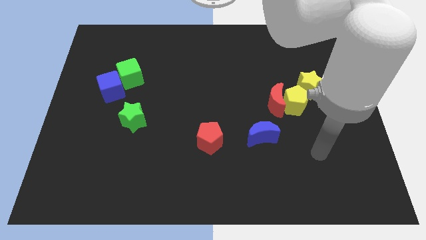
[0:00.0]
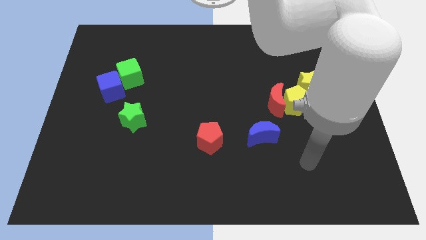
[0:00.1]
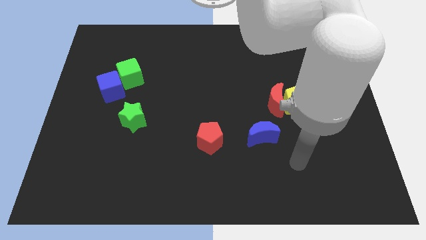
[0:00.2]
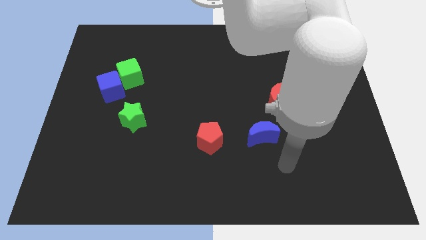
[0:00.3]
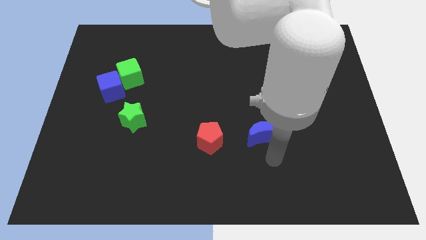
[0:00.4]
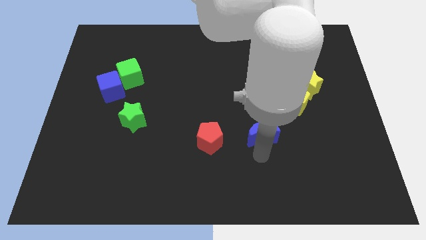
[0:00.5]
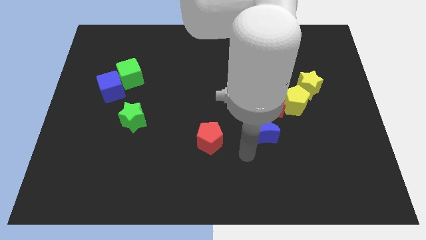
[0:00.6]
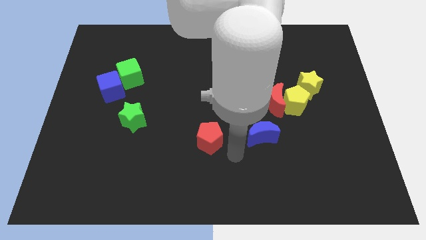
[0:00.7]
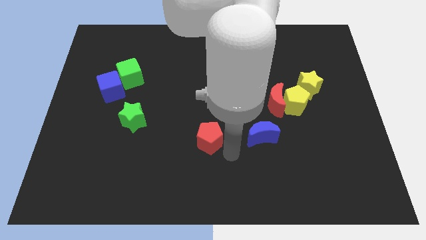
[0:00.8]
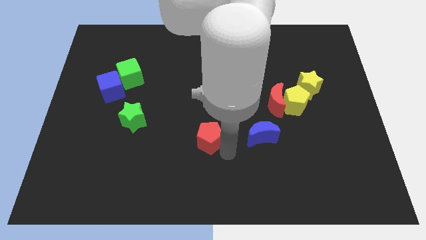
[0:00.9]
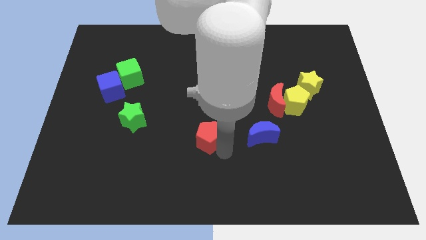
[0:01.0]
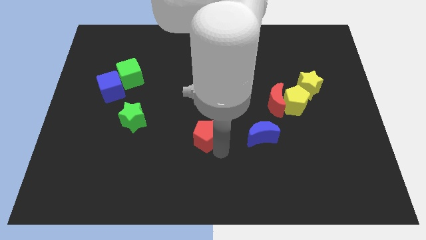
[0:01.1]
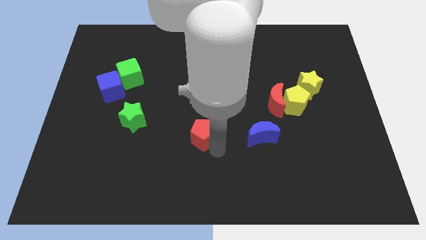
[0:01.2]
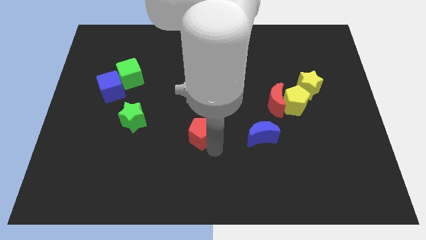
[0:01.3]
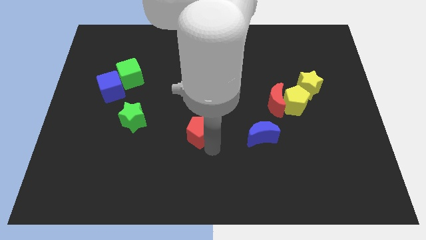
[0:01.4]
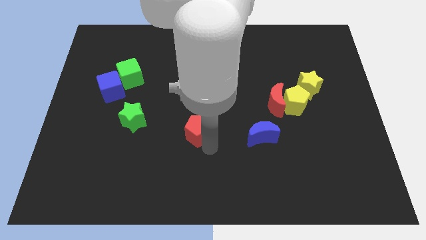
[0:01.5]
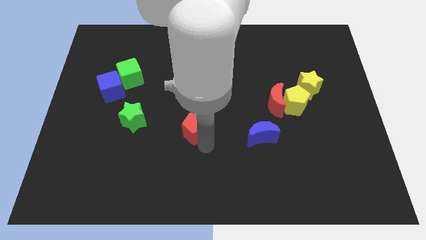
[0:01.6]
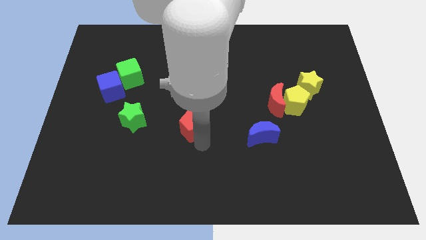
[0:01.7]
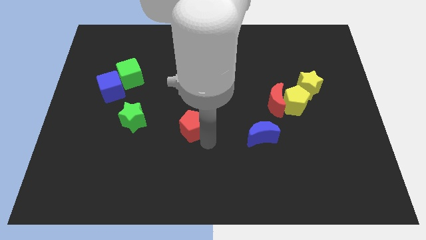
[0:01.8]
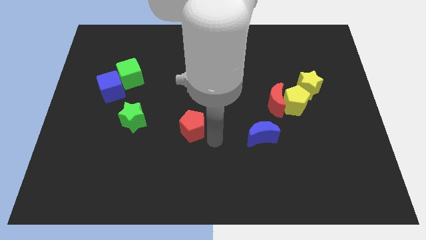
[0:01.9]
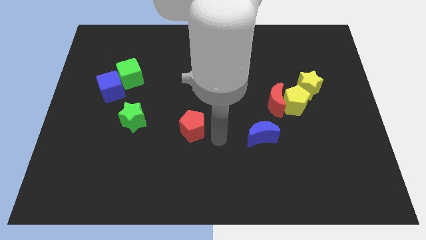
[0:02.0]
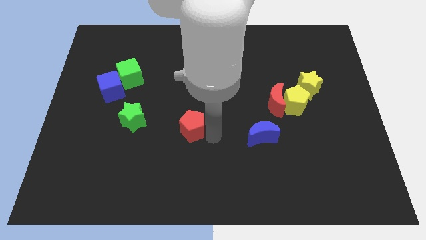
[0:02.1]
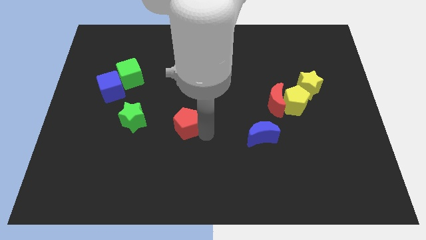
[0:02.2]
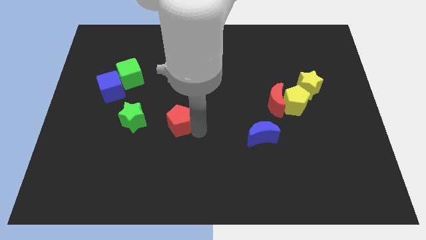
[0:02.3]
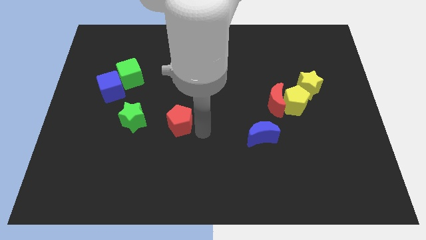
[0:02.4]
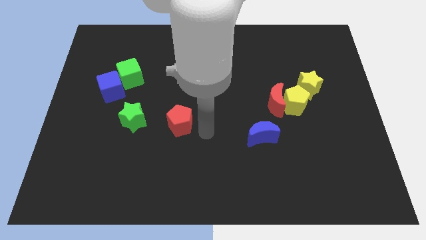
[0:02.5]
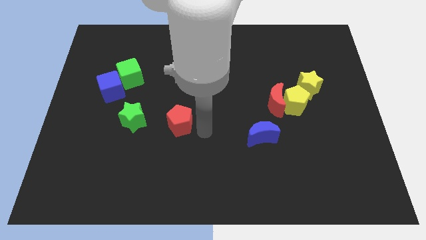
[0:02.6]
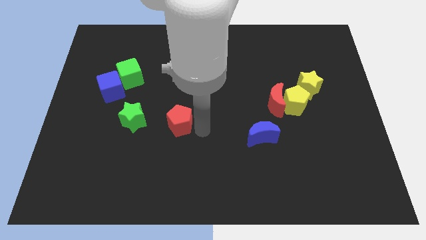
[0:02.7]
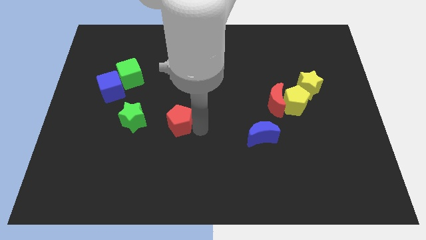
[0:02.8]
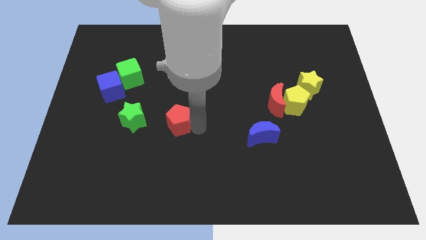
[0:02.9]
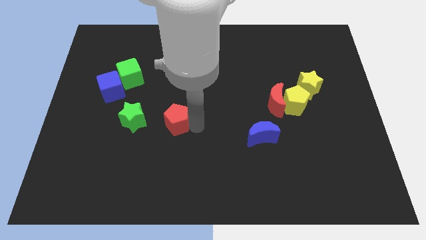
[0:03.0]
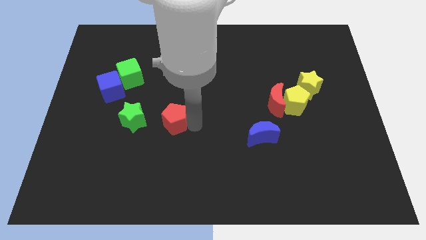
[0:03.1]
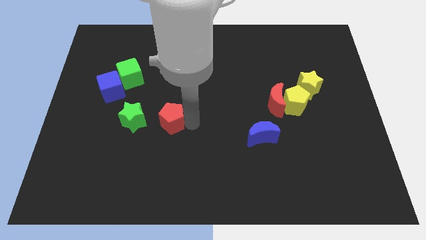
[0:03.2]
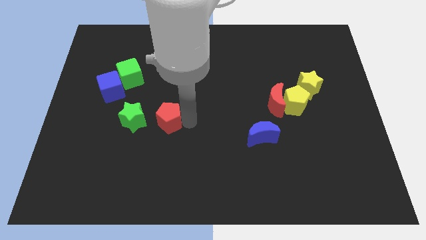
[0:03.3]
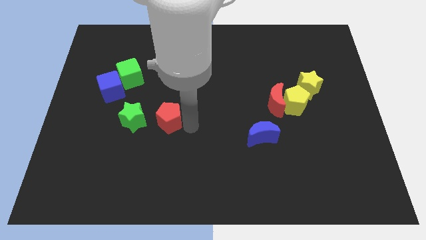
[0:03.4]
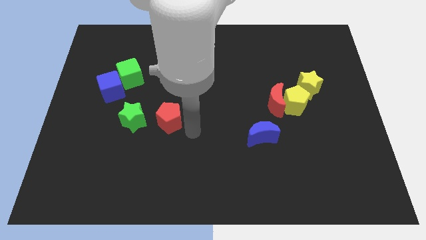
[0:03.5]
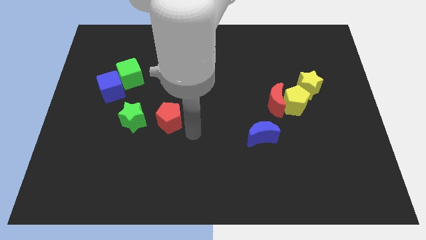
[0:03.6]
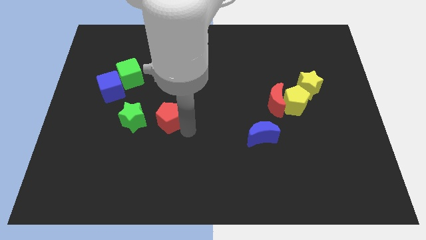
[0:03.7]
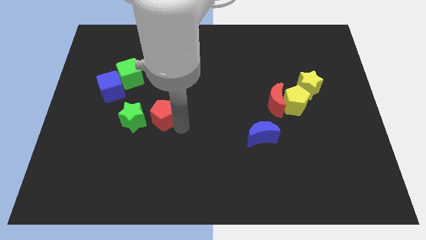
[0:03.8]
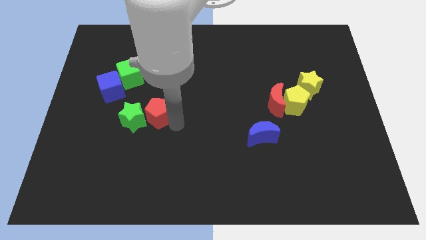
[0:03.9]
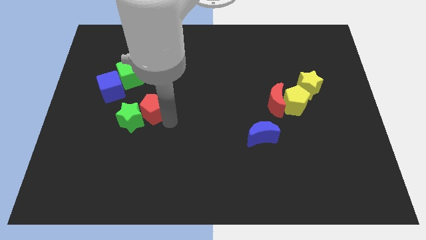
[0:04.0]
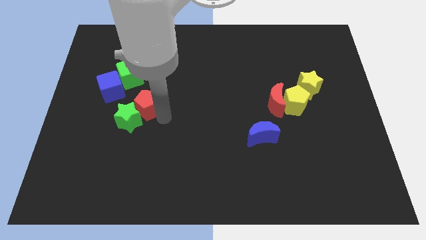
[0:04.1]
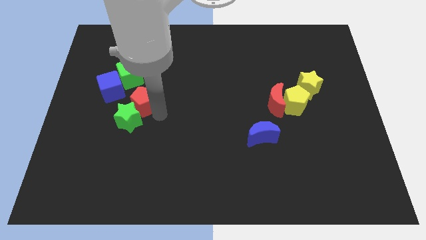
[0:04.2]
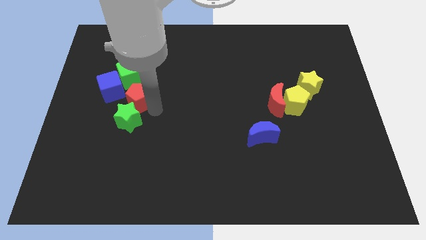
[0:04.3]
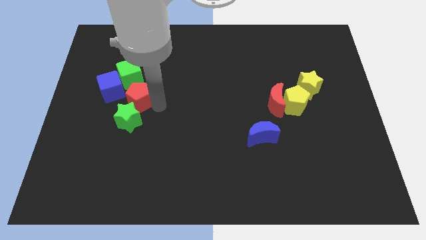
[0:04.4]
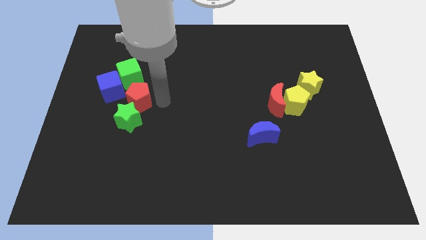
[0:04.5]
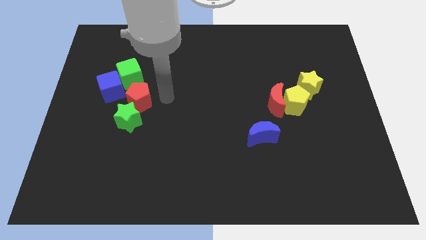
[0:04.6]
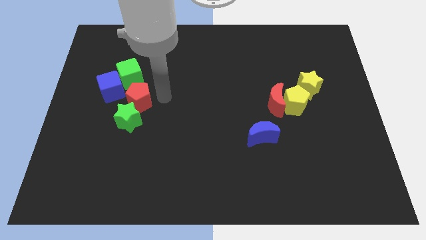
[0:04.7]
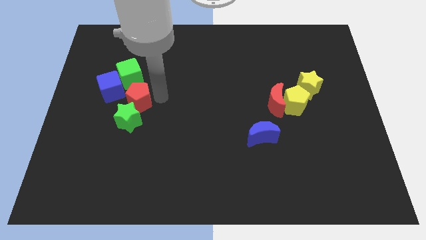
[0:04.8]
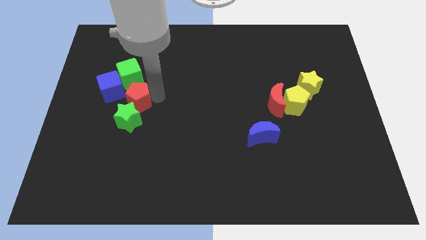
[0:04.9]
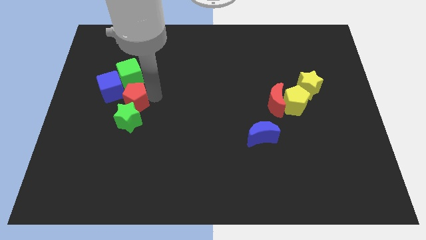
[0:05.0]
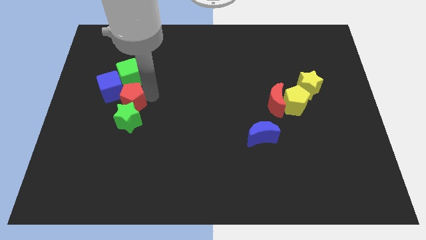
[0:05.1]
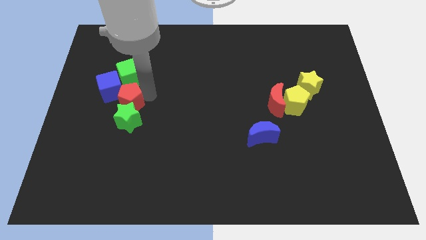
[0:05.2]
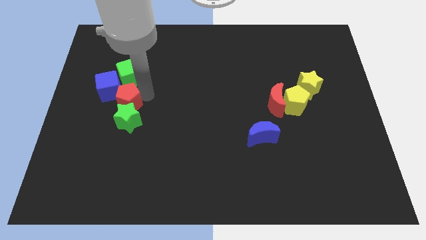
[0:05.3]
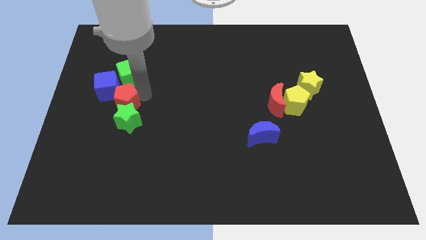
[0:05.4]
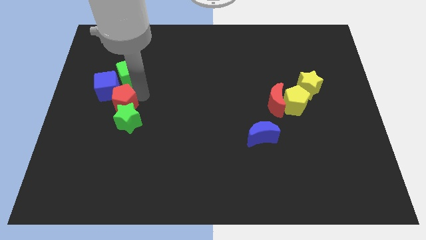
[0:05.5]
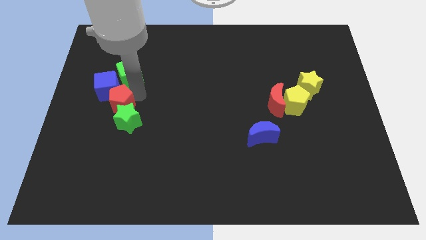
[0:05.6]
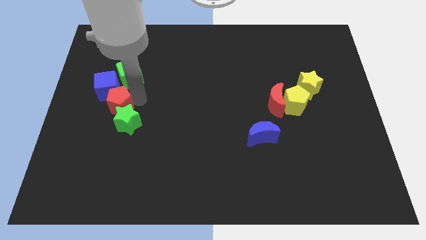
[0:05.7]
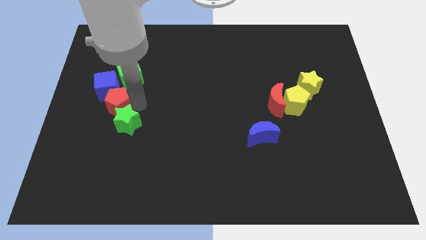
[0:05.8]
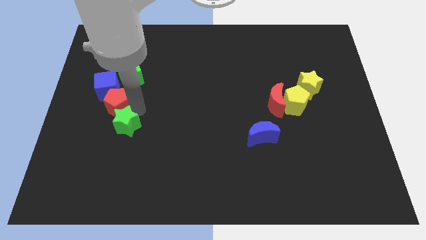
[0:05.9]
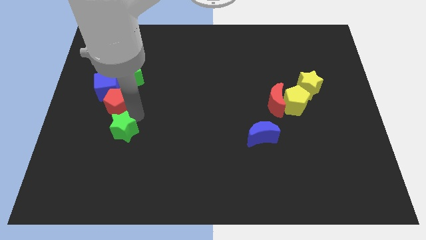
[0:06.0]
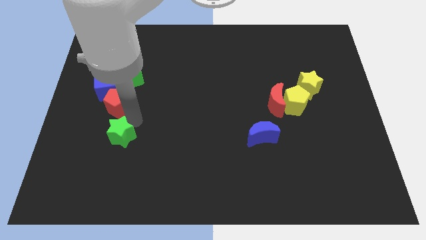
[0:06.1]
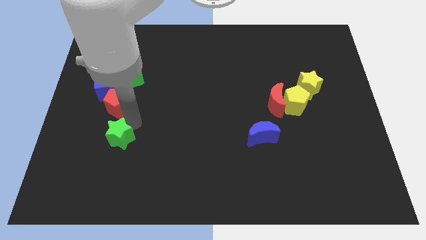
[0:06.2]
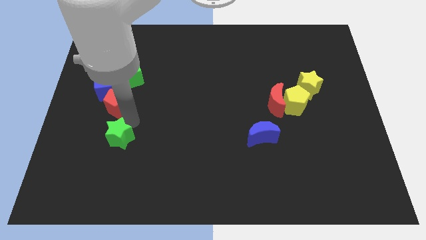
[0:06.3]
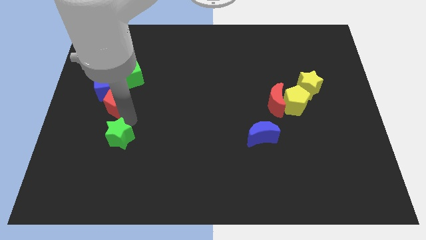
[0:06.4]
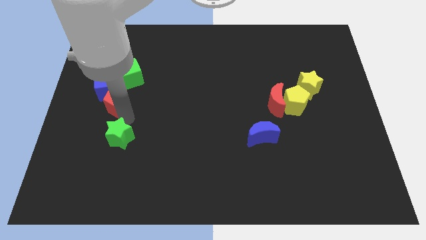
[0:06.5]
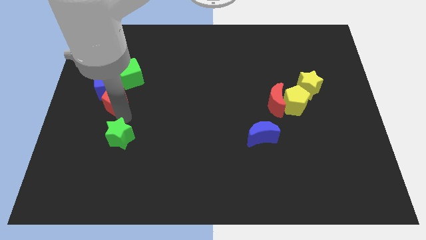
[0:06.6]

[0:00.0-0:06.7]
put the red pentagon to the bottom left of the green cube

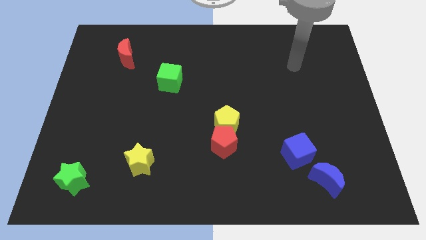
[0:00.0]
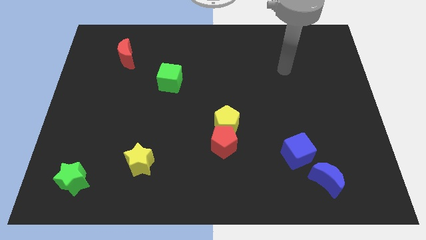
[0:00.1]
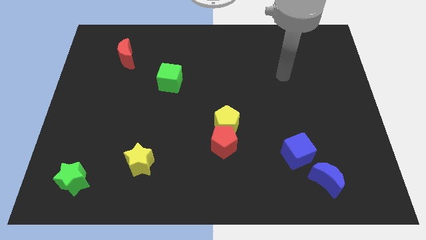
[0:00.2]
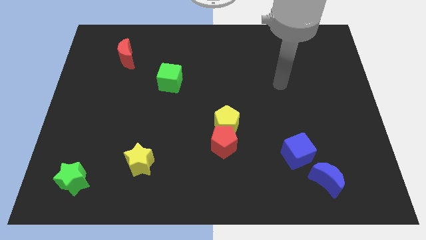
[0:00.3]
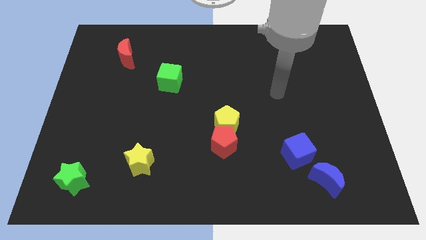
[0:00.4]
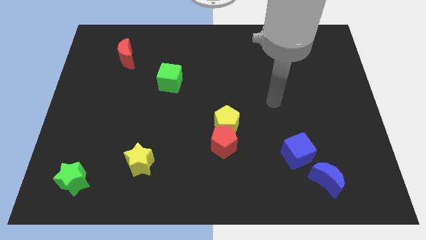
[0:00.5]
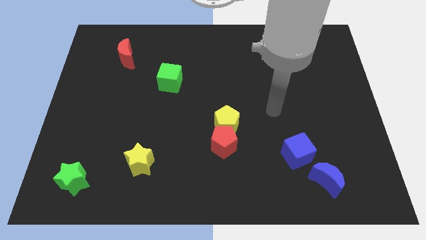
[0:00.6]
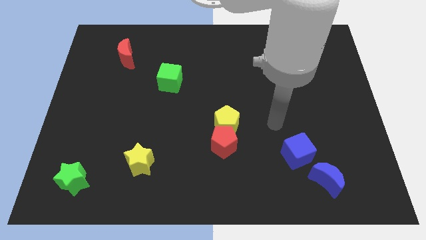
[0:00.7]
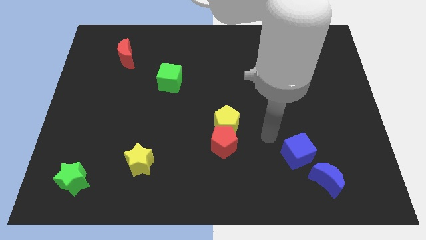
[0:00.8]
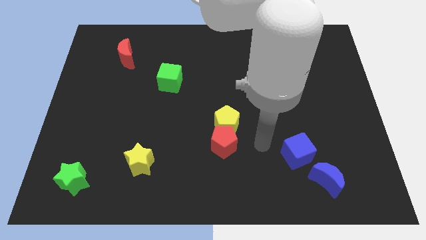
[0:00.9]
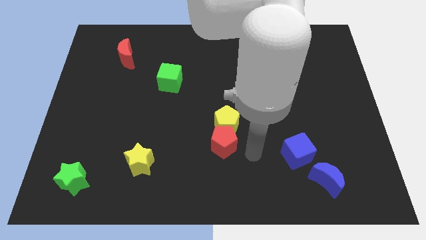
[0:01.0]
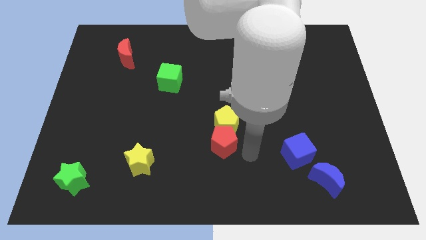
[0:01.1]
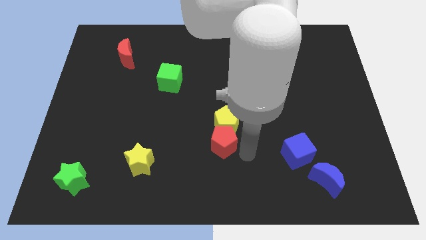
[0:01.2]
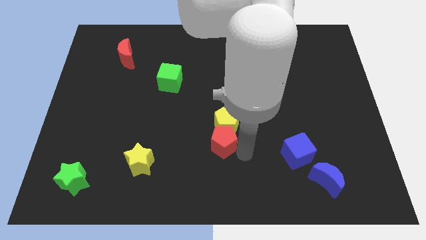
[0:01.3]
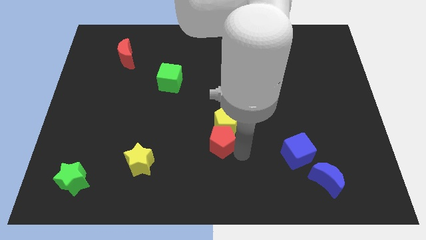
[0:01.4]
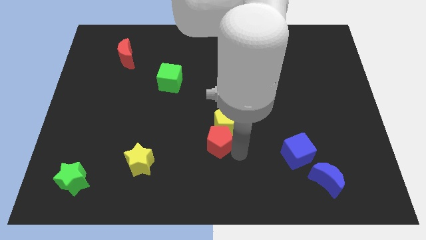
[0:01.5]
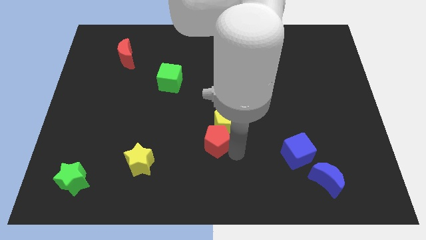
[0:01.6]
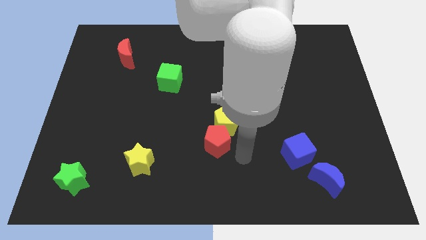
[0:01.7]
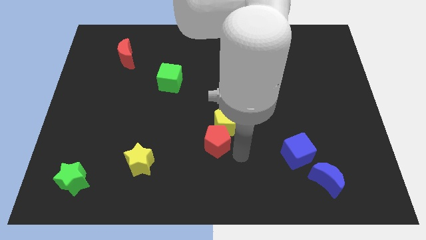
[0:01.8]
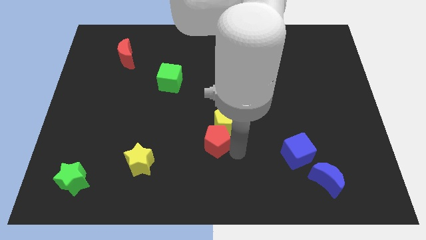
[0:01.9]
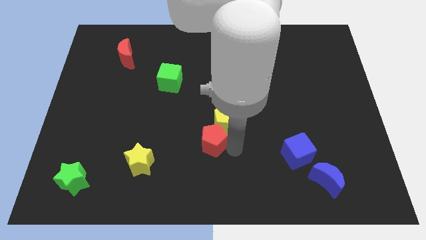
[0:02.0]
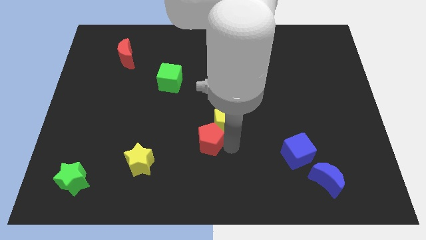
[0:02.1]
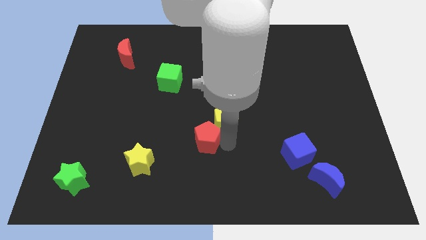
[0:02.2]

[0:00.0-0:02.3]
slide the red pentagon just left of the yellow pentagon
